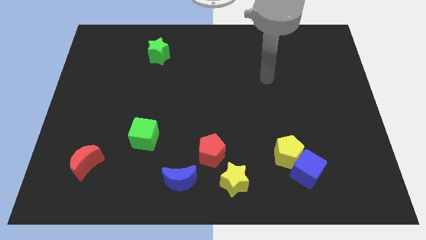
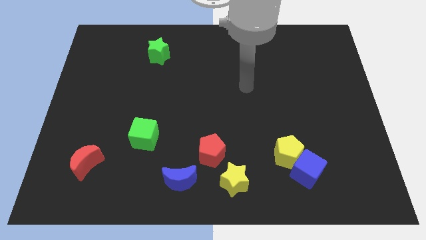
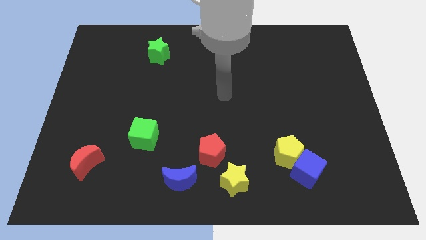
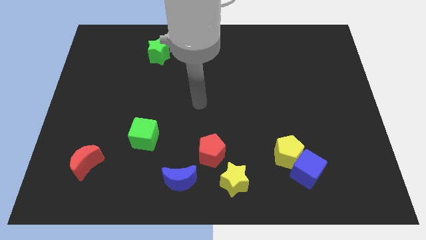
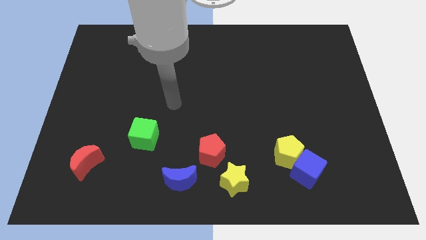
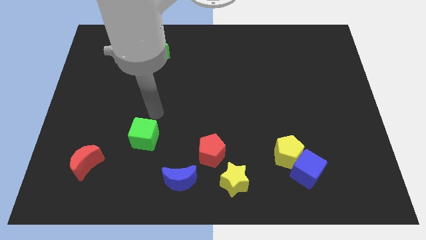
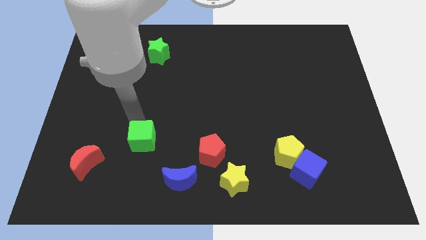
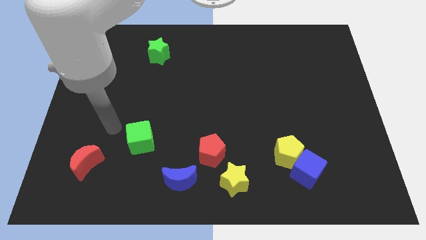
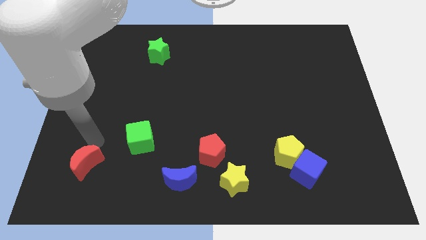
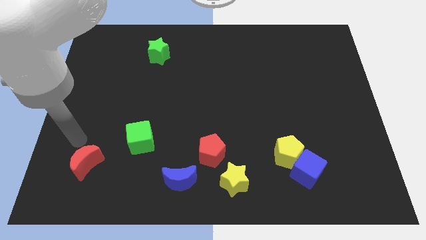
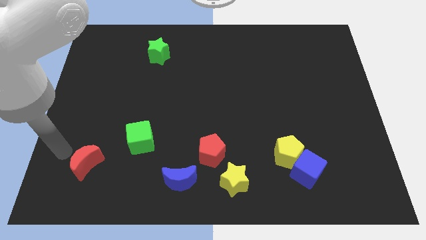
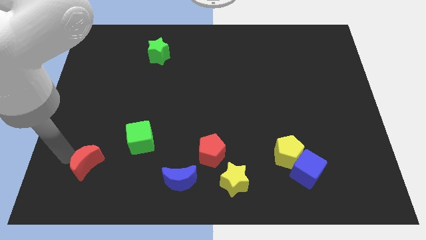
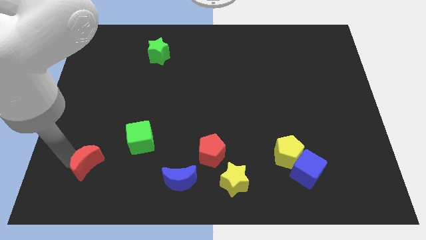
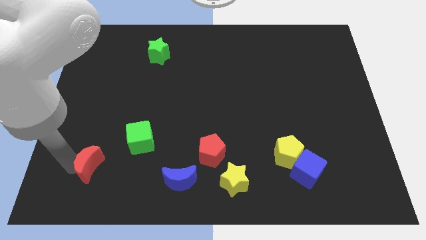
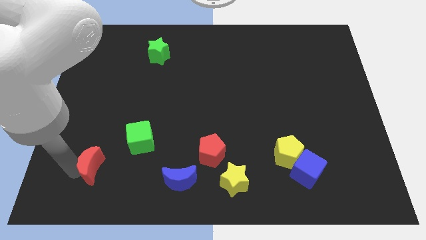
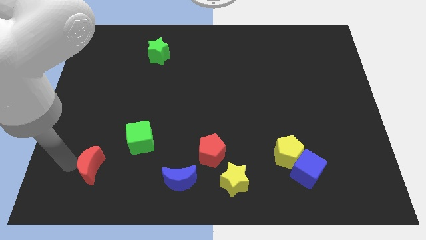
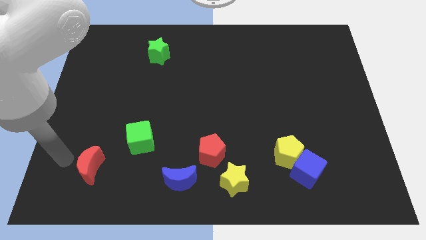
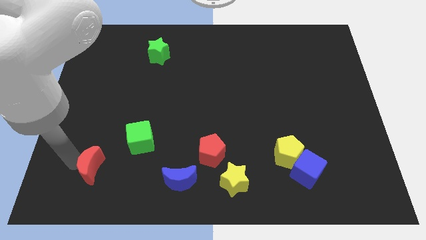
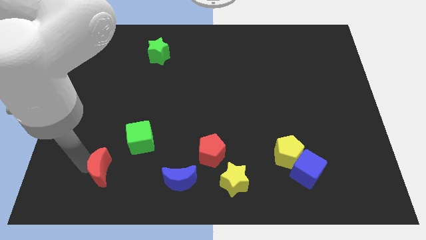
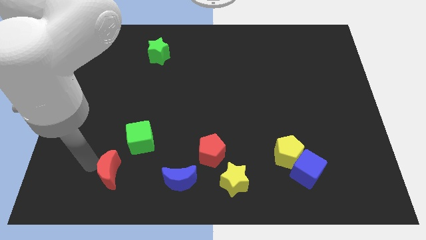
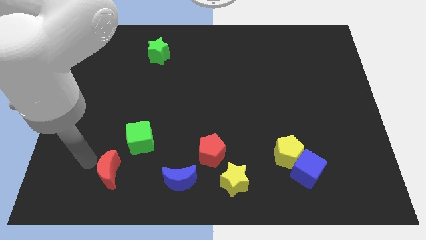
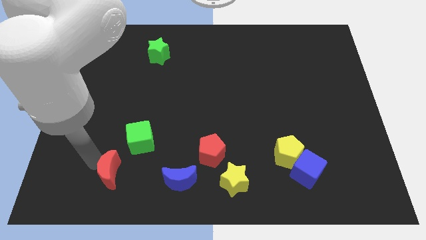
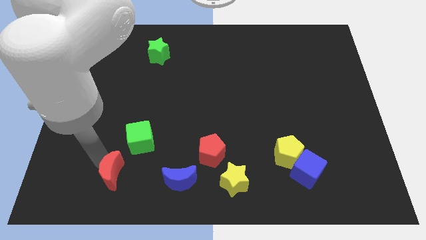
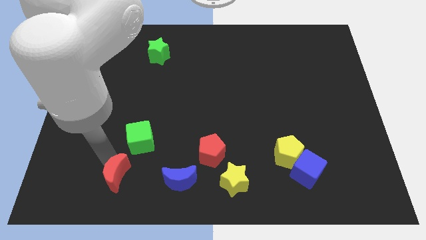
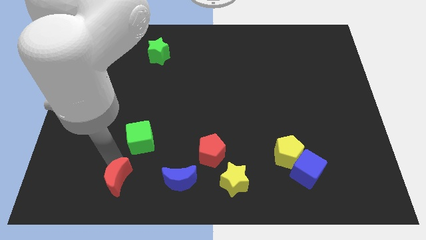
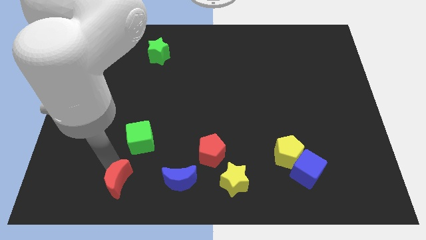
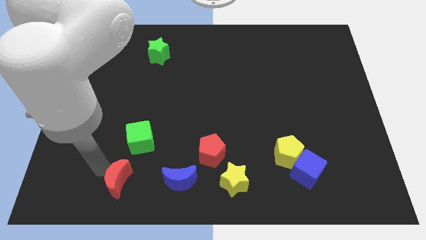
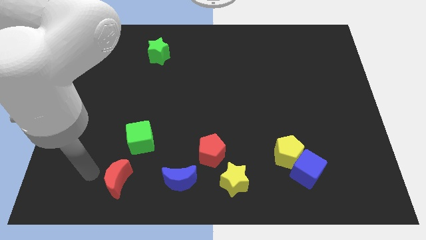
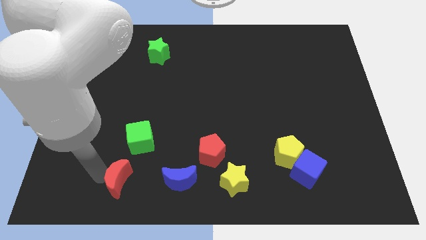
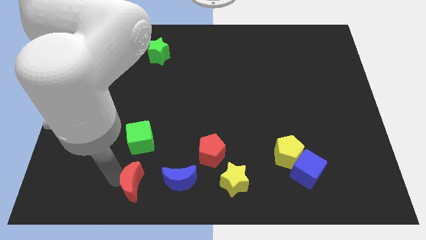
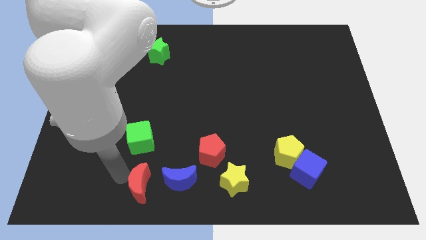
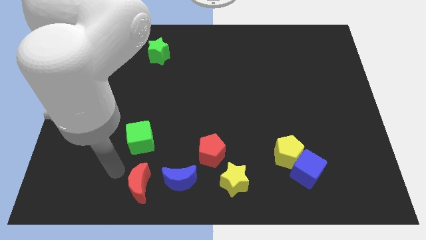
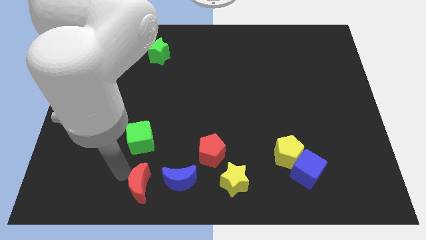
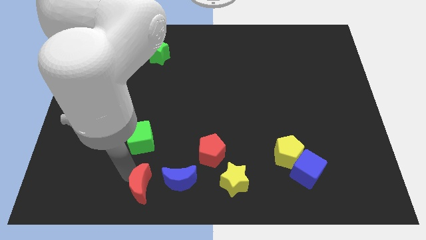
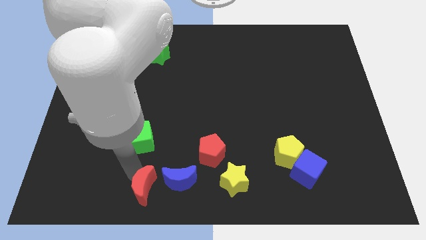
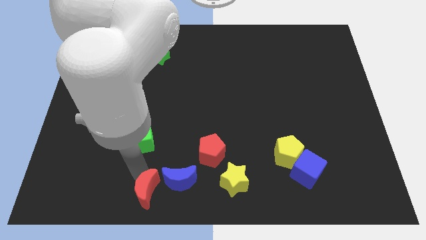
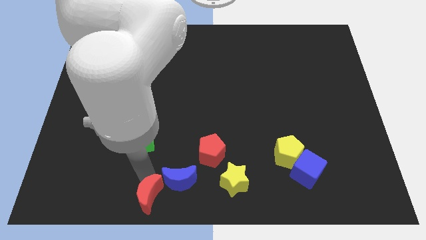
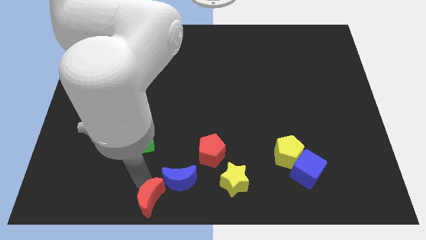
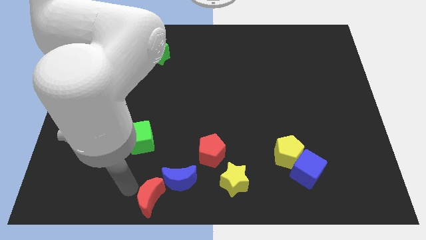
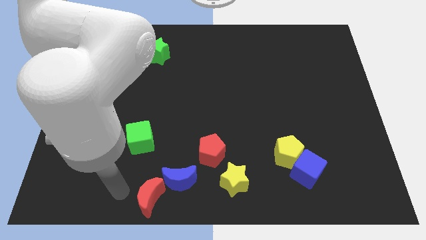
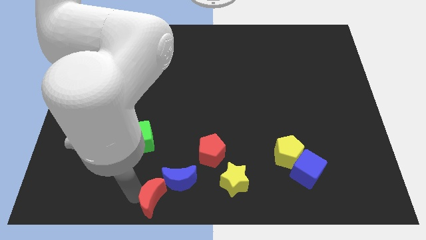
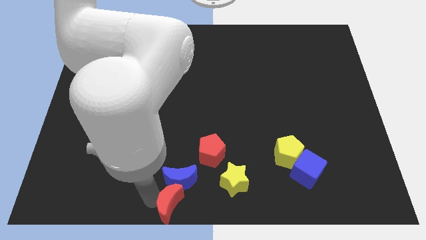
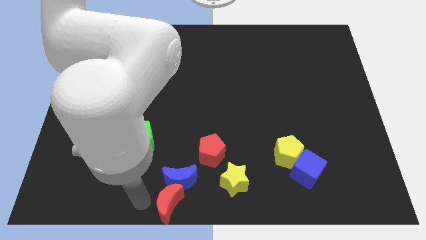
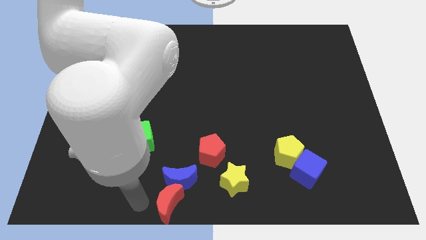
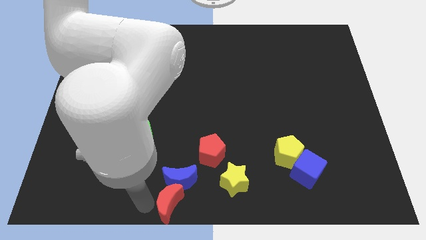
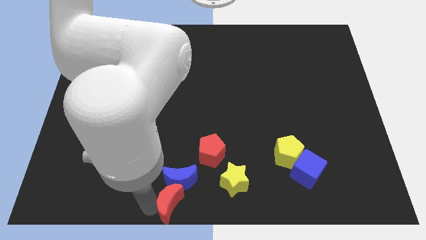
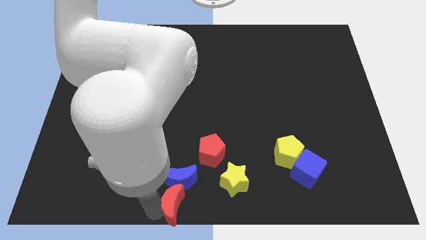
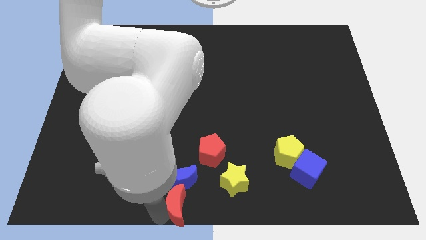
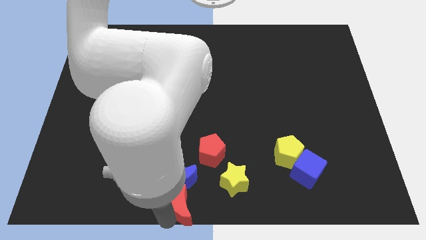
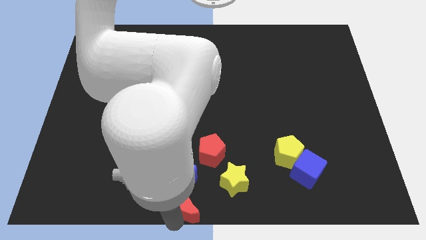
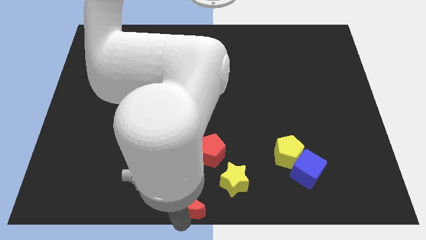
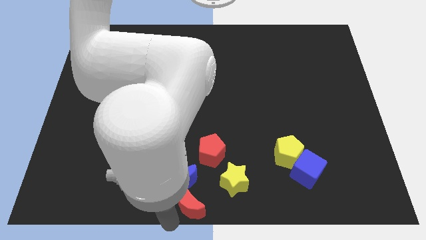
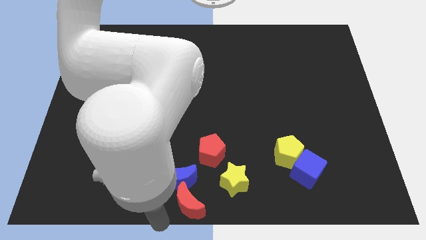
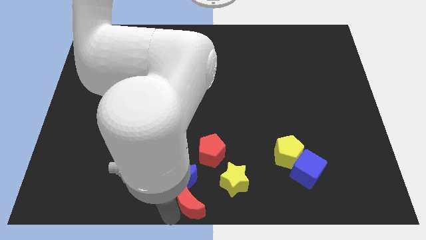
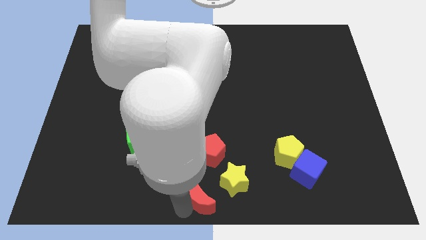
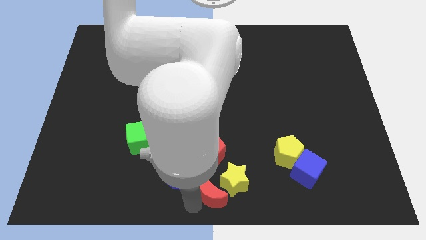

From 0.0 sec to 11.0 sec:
move the red moon towards the yellow star

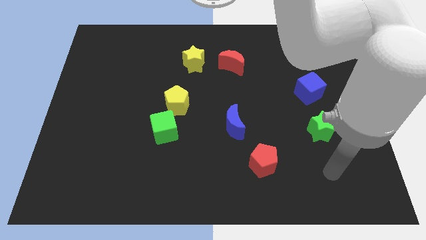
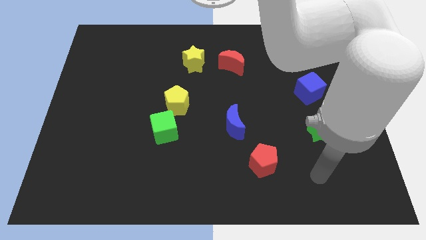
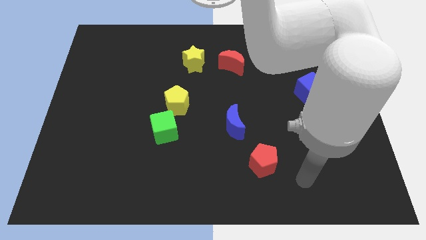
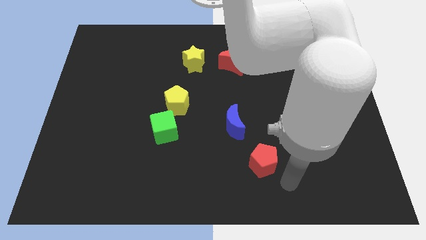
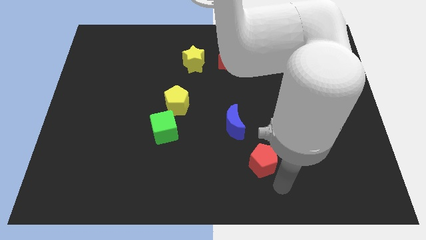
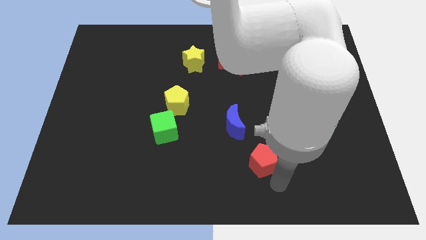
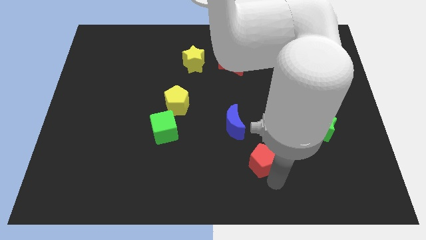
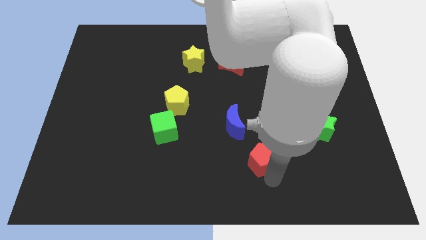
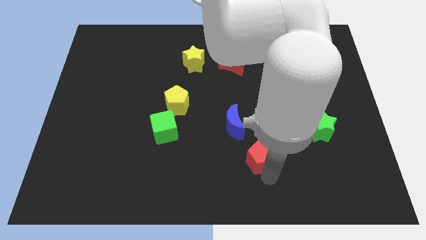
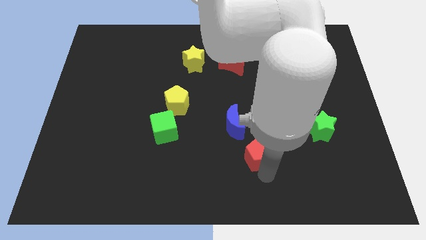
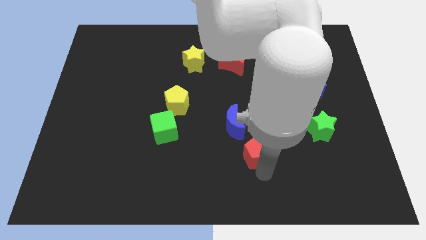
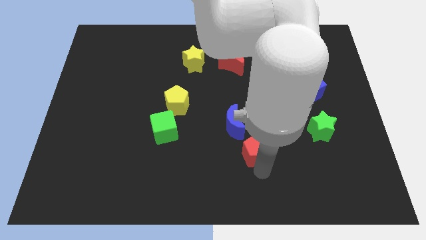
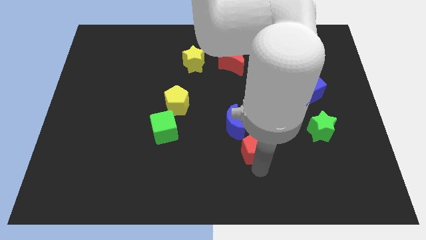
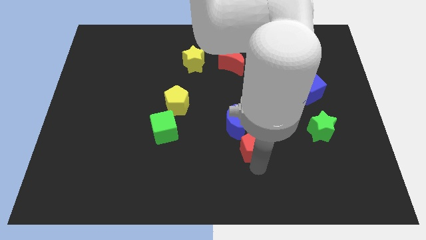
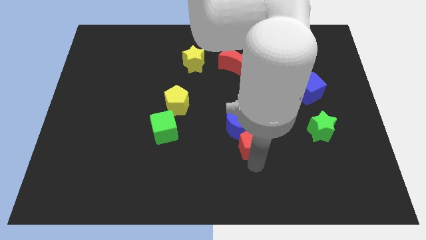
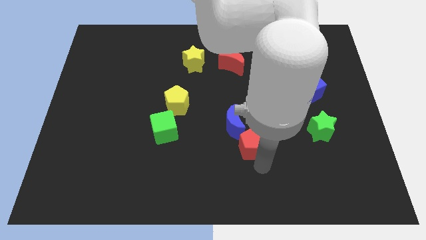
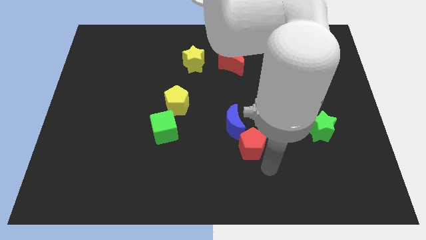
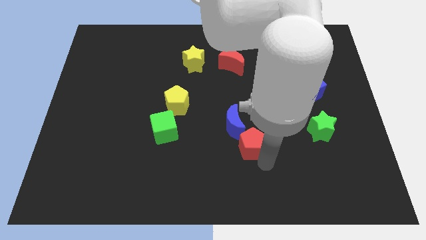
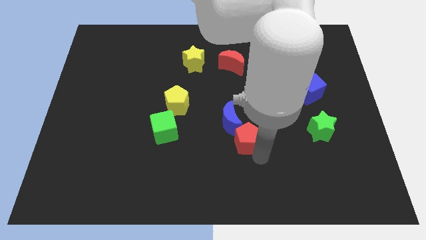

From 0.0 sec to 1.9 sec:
push the red pentagon close to the blue moon
